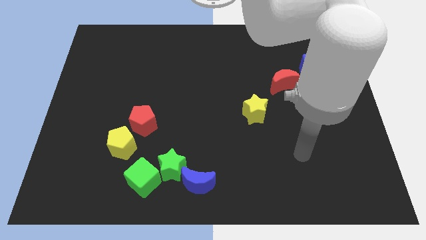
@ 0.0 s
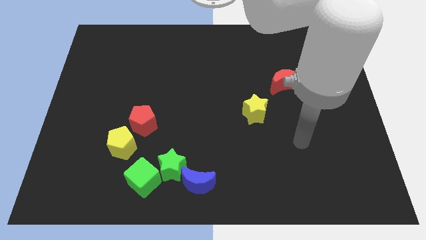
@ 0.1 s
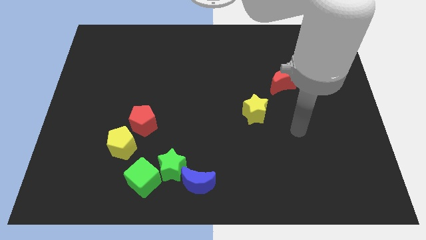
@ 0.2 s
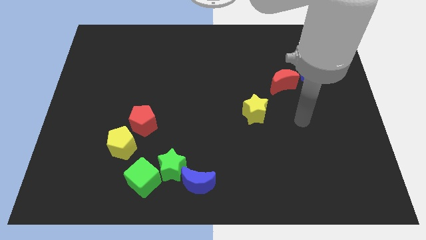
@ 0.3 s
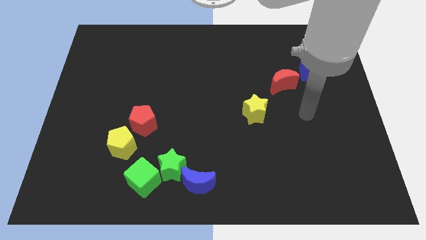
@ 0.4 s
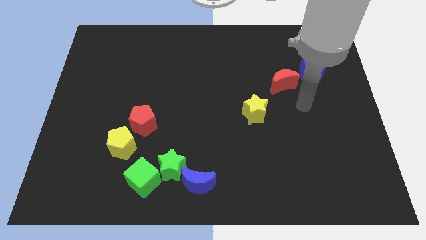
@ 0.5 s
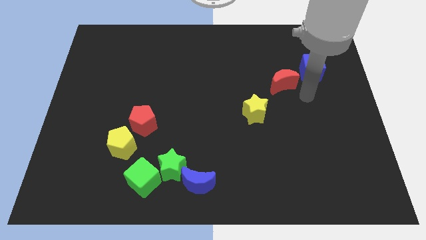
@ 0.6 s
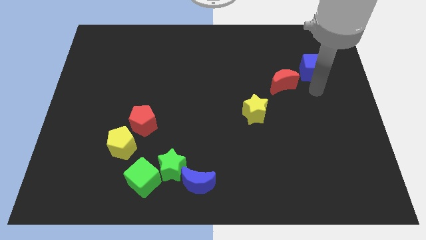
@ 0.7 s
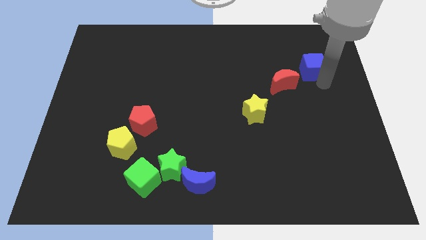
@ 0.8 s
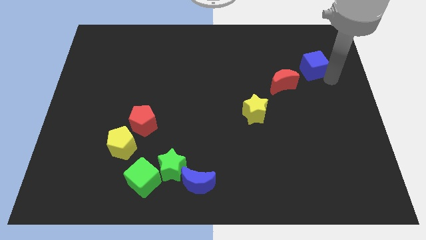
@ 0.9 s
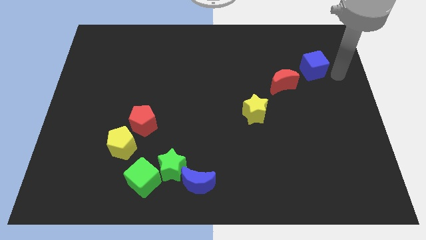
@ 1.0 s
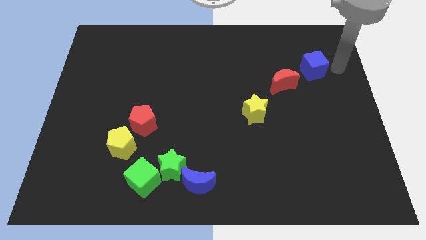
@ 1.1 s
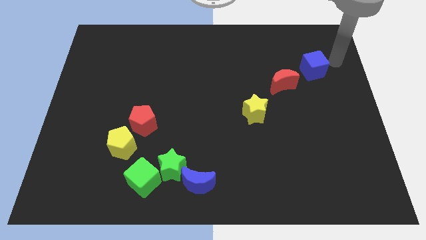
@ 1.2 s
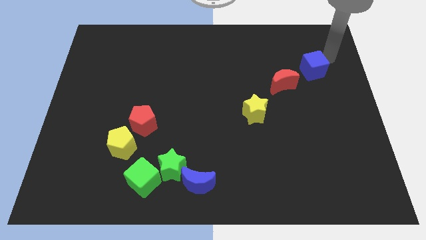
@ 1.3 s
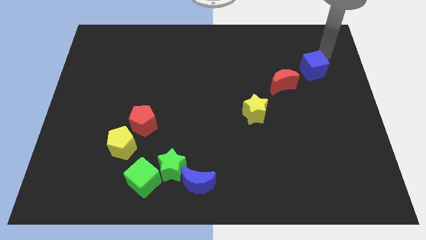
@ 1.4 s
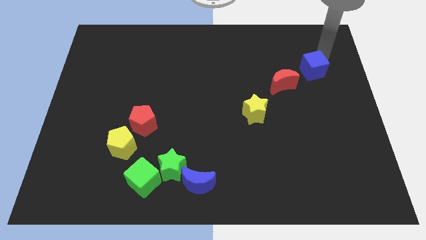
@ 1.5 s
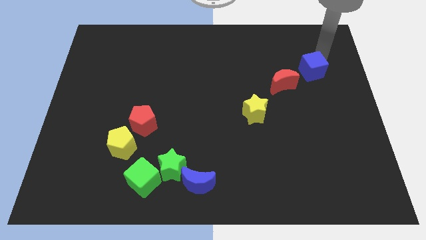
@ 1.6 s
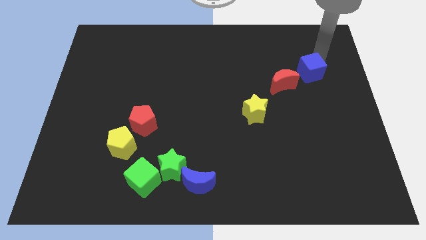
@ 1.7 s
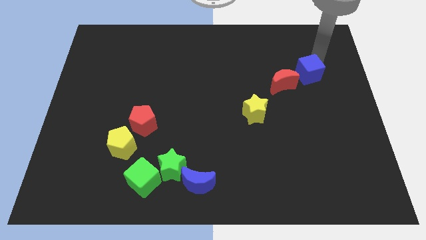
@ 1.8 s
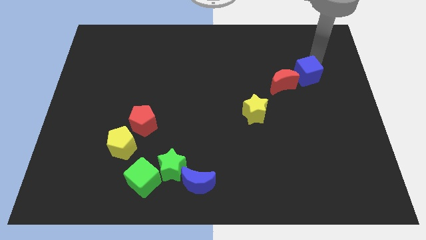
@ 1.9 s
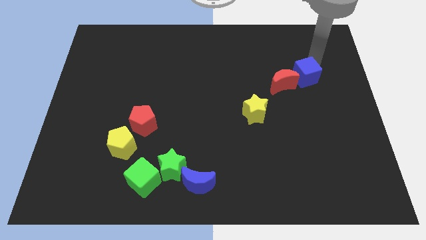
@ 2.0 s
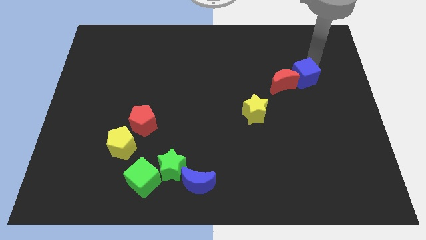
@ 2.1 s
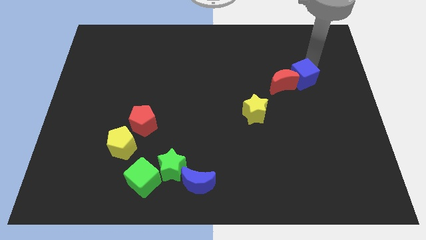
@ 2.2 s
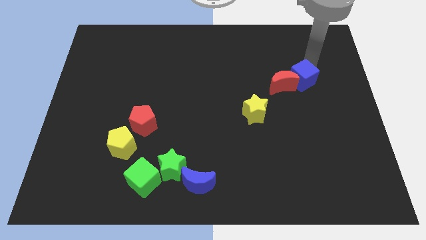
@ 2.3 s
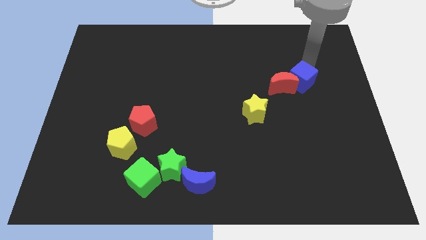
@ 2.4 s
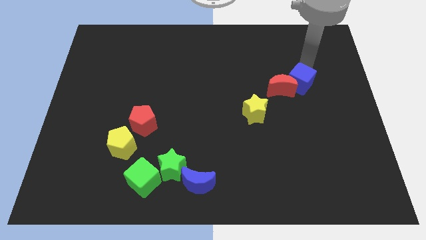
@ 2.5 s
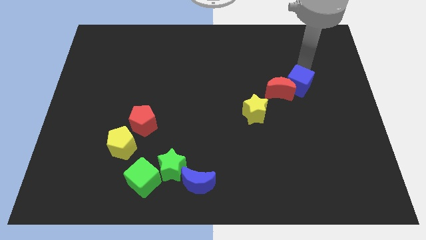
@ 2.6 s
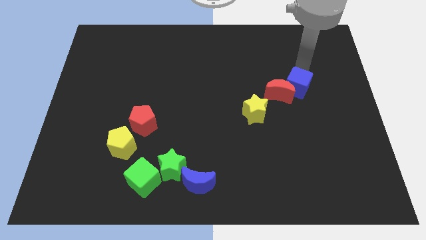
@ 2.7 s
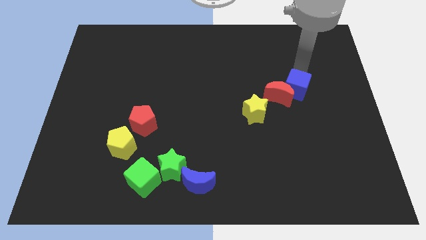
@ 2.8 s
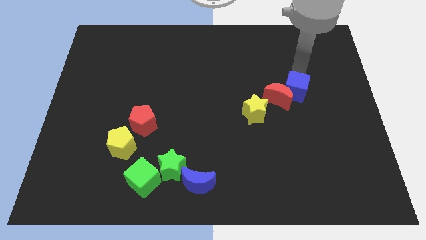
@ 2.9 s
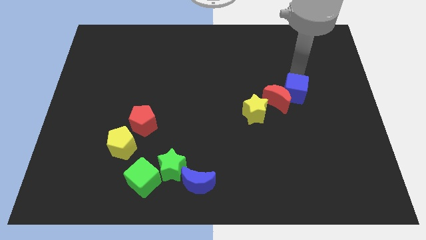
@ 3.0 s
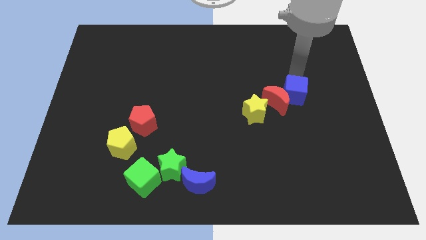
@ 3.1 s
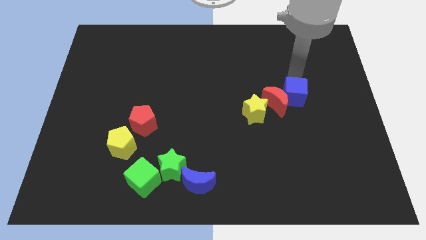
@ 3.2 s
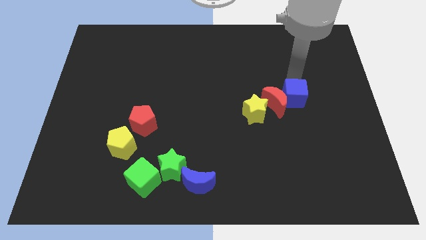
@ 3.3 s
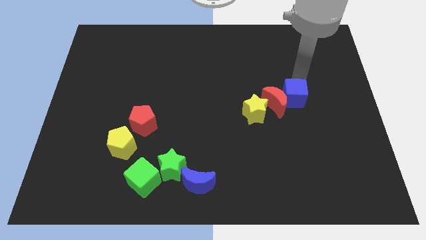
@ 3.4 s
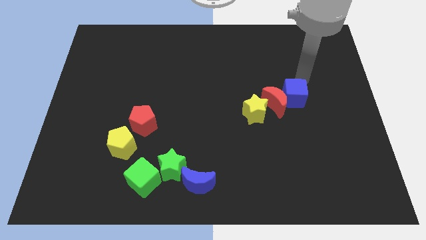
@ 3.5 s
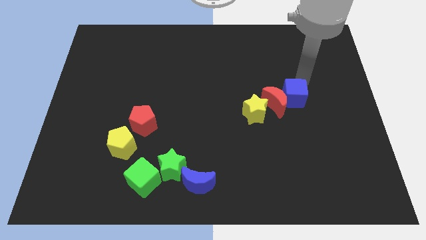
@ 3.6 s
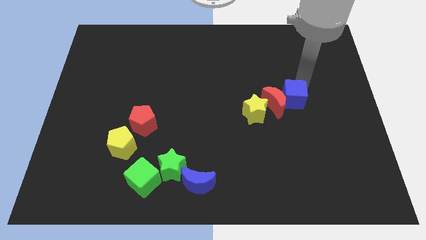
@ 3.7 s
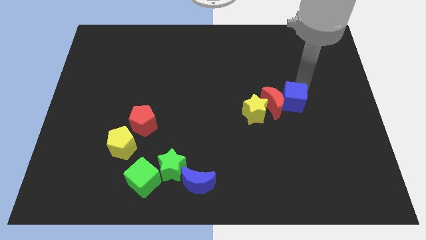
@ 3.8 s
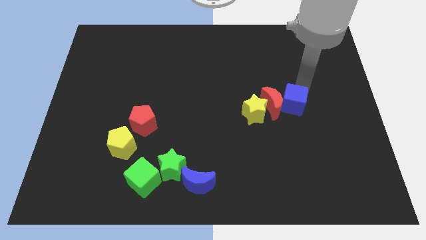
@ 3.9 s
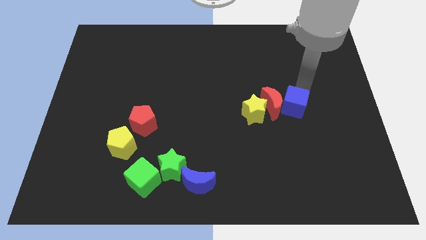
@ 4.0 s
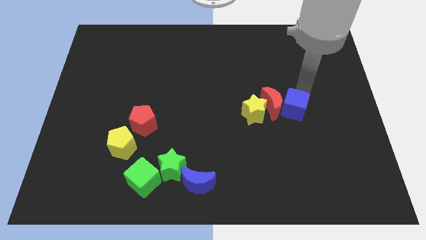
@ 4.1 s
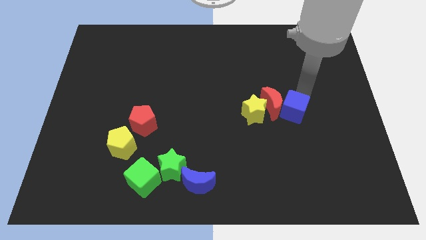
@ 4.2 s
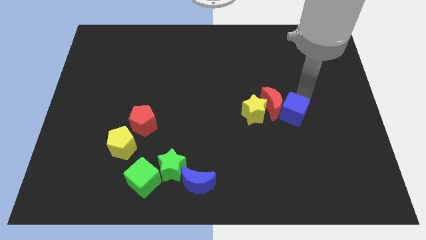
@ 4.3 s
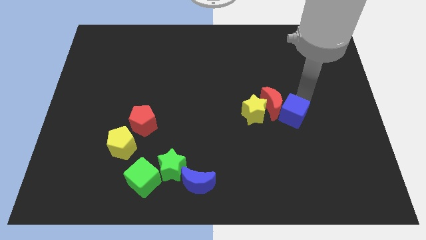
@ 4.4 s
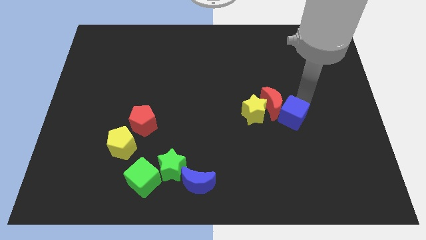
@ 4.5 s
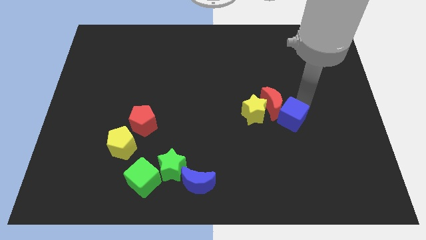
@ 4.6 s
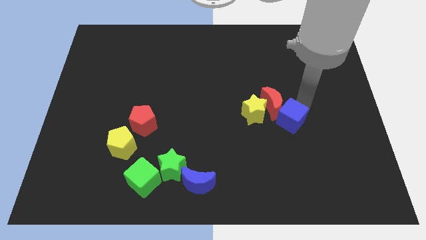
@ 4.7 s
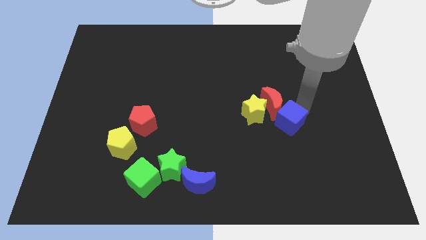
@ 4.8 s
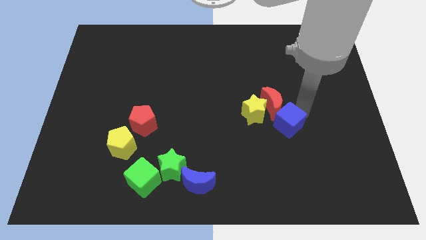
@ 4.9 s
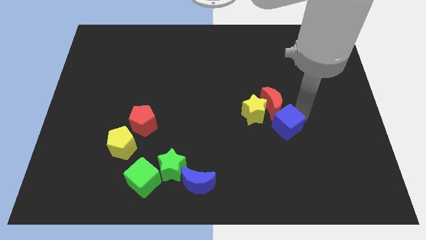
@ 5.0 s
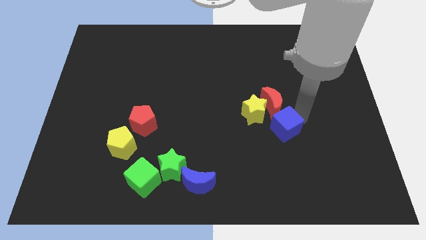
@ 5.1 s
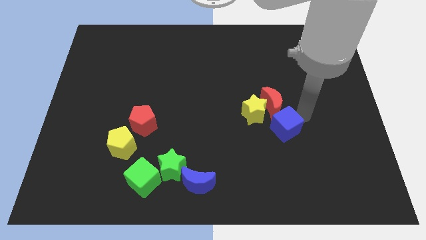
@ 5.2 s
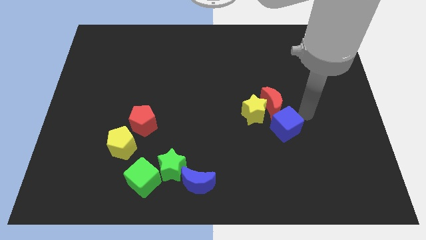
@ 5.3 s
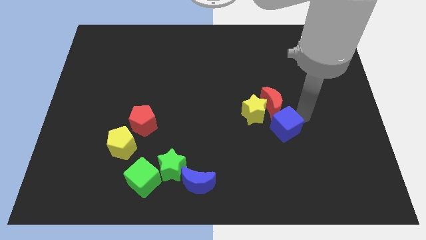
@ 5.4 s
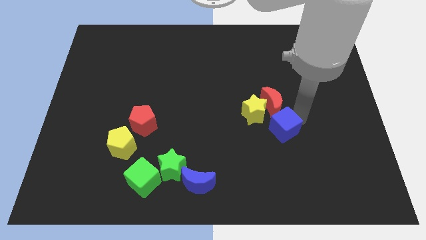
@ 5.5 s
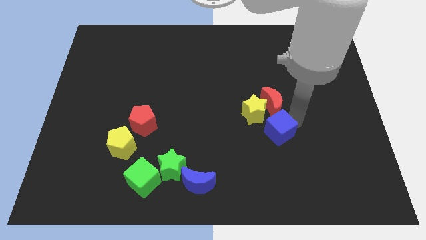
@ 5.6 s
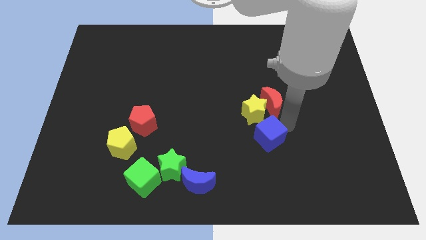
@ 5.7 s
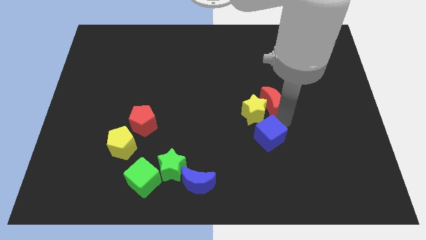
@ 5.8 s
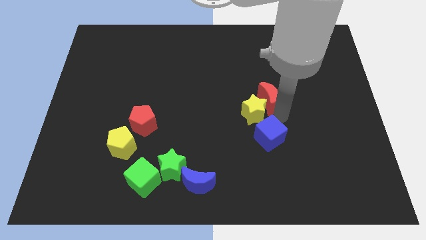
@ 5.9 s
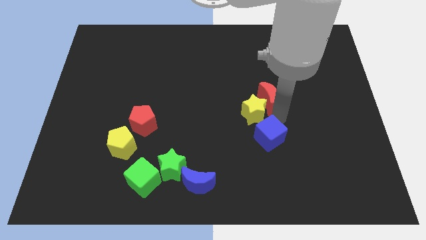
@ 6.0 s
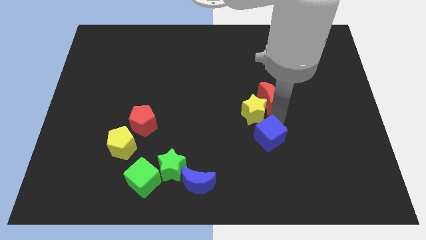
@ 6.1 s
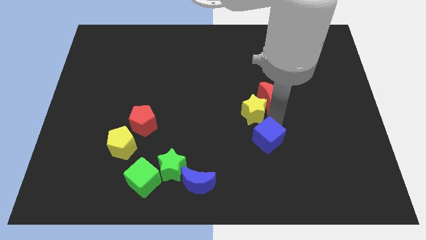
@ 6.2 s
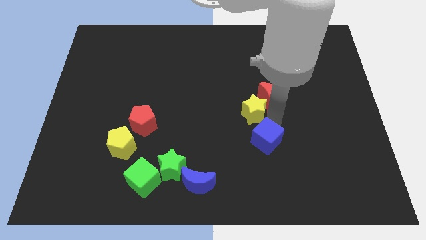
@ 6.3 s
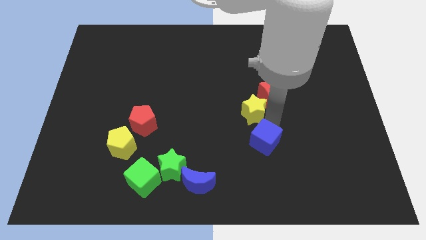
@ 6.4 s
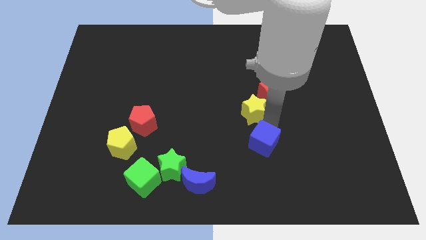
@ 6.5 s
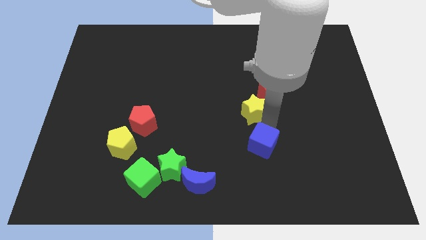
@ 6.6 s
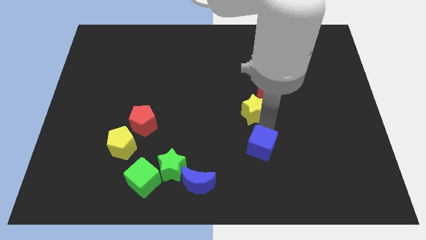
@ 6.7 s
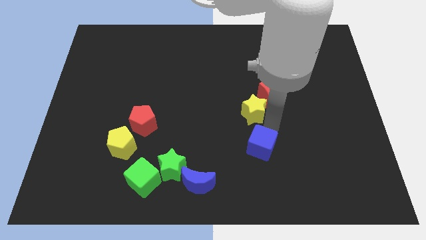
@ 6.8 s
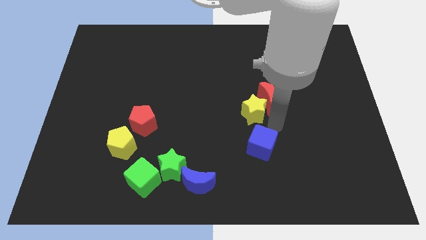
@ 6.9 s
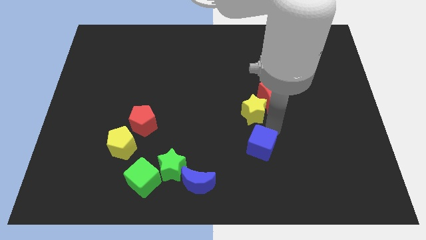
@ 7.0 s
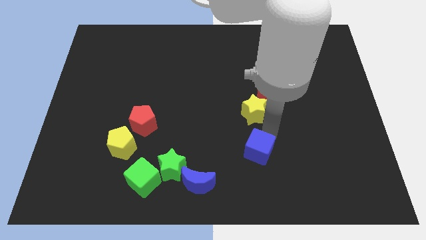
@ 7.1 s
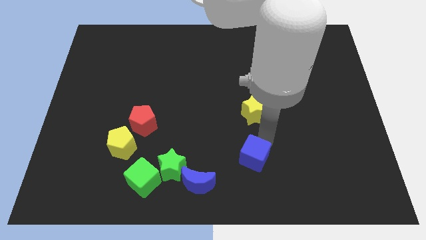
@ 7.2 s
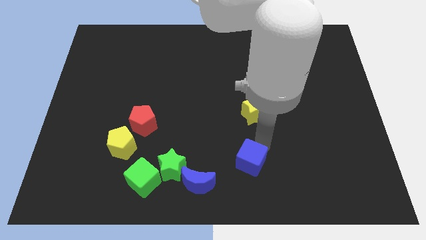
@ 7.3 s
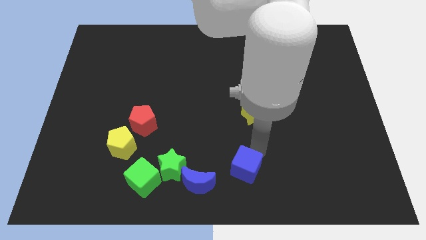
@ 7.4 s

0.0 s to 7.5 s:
put the blue cube to the bottom
